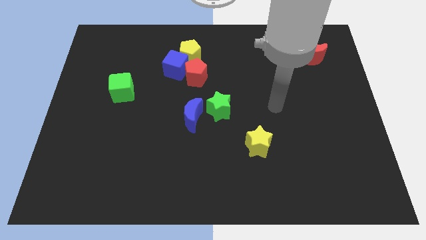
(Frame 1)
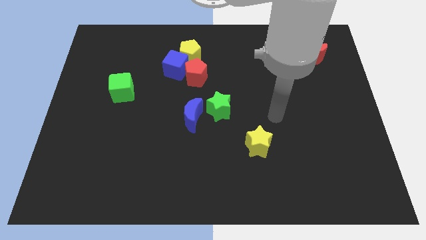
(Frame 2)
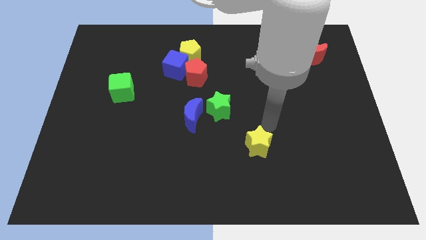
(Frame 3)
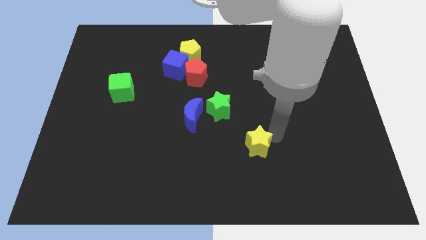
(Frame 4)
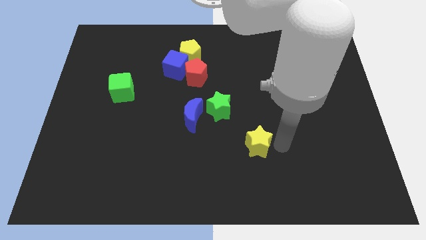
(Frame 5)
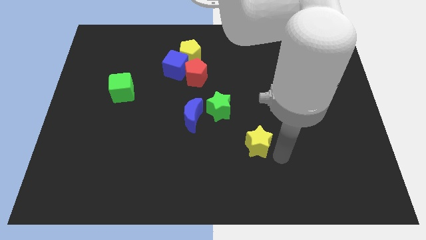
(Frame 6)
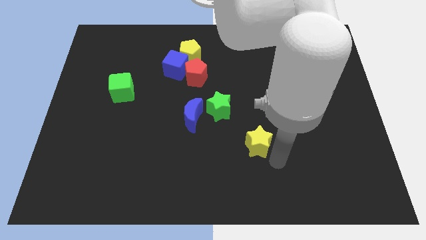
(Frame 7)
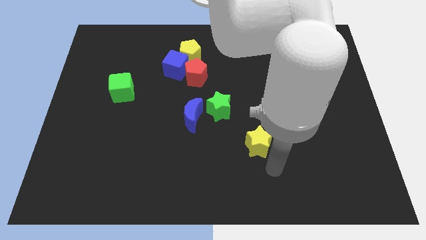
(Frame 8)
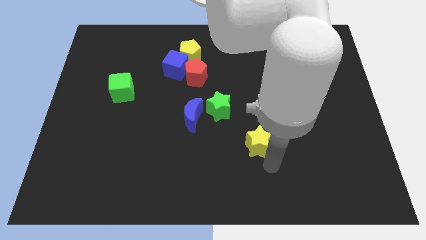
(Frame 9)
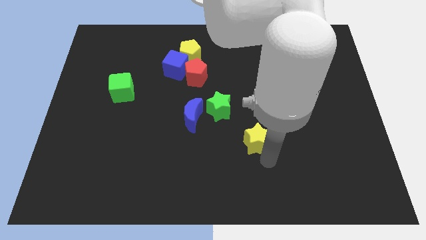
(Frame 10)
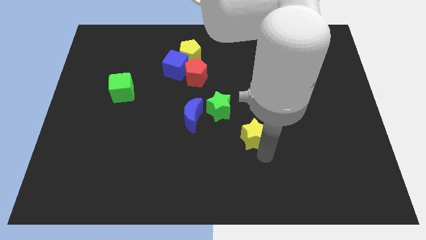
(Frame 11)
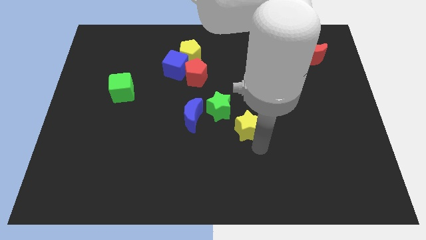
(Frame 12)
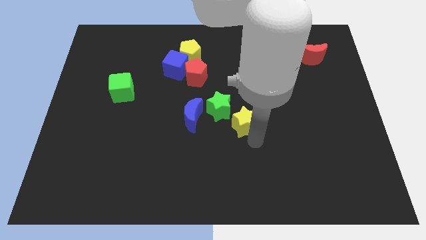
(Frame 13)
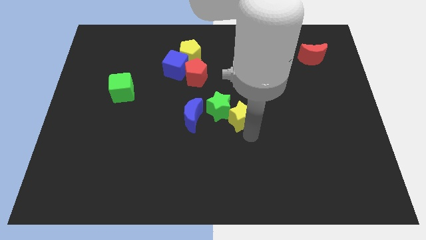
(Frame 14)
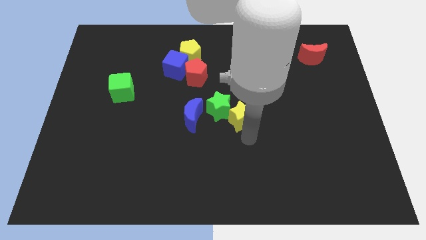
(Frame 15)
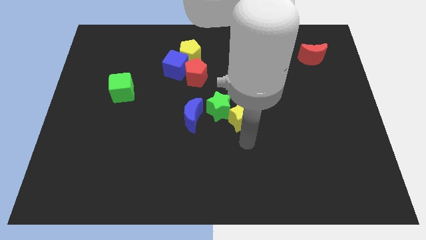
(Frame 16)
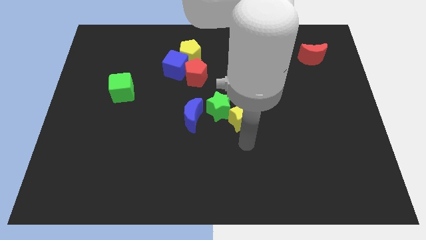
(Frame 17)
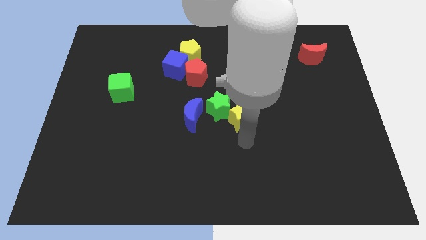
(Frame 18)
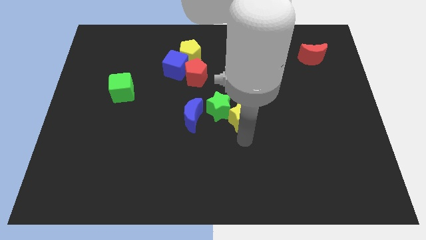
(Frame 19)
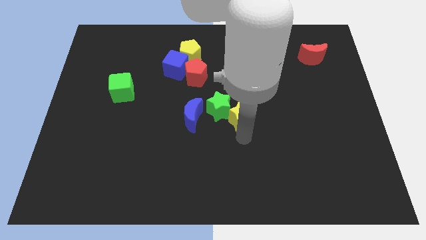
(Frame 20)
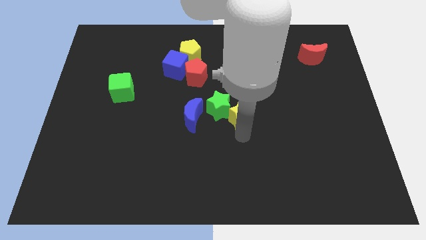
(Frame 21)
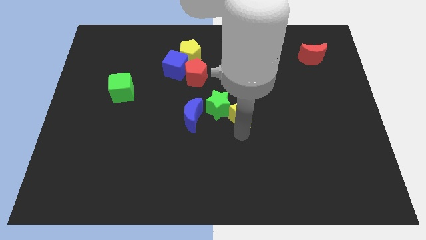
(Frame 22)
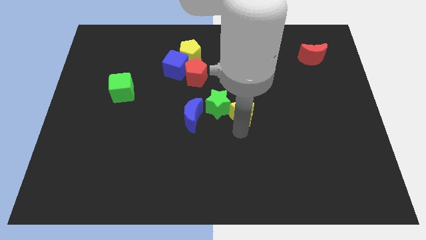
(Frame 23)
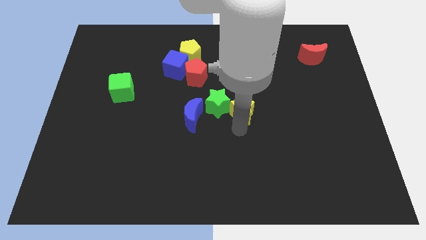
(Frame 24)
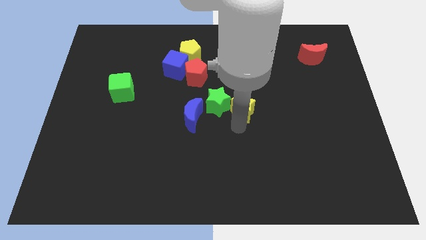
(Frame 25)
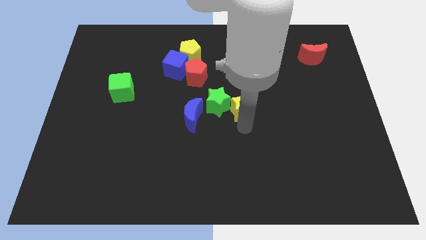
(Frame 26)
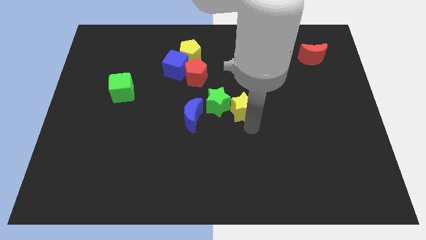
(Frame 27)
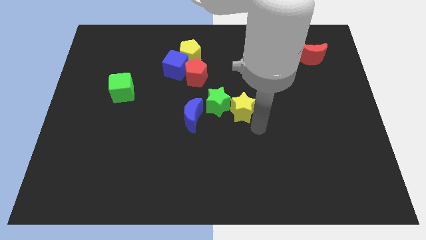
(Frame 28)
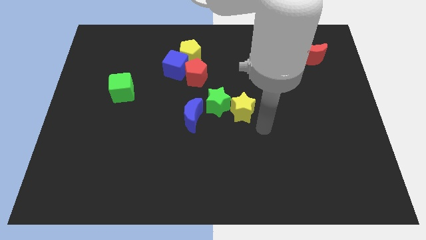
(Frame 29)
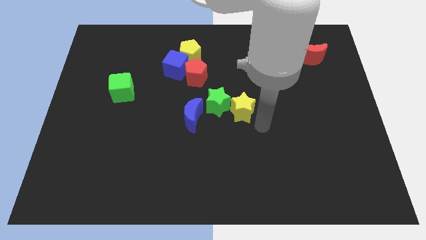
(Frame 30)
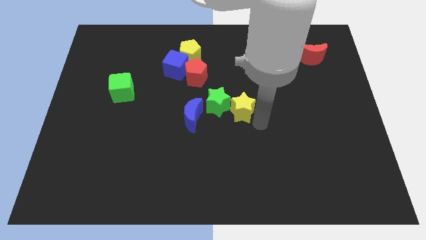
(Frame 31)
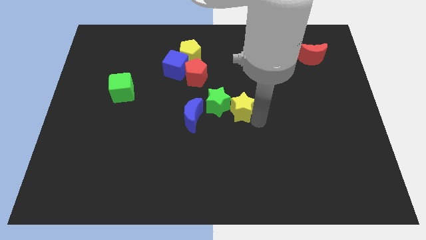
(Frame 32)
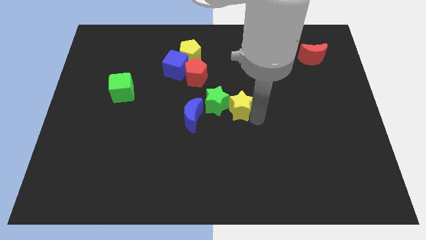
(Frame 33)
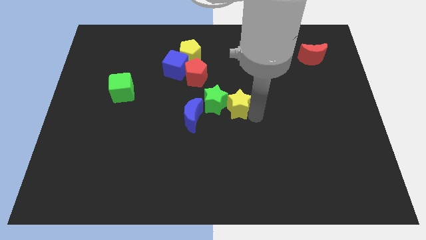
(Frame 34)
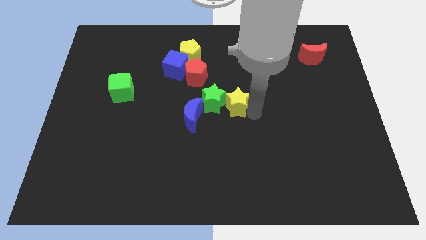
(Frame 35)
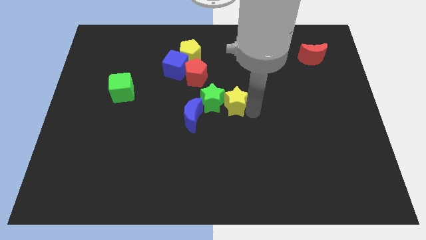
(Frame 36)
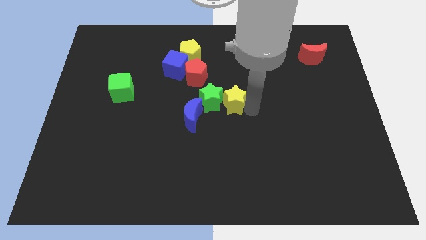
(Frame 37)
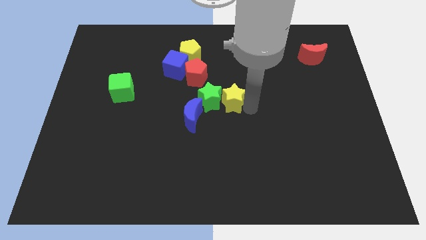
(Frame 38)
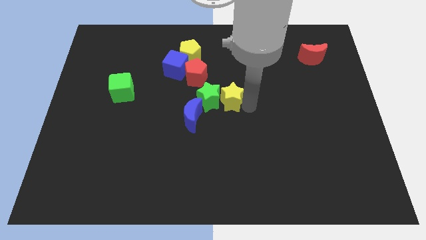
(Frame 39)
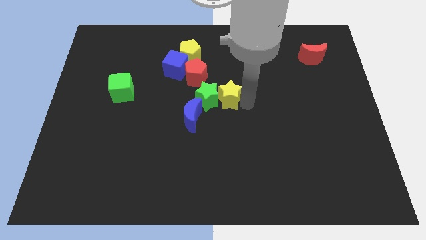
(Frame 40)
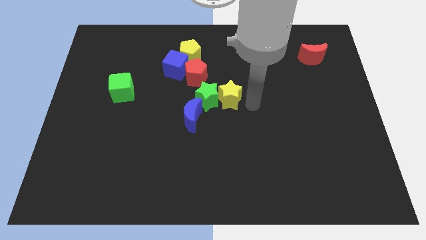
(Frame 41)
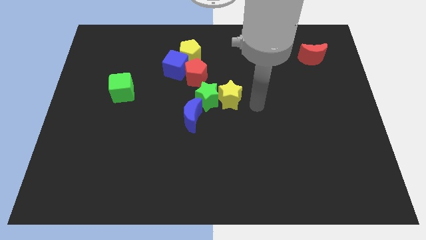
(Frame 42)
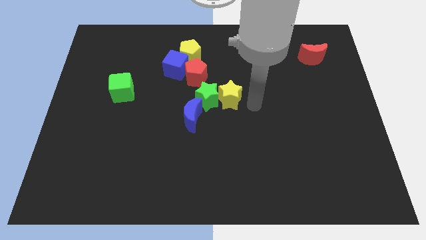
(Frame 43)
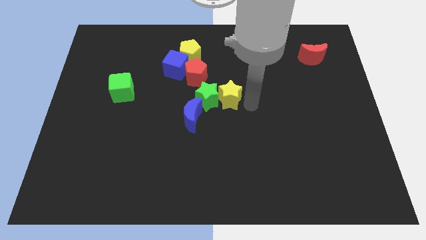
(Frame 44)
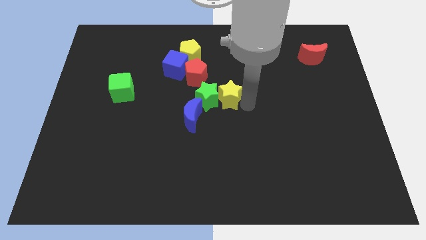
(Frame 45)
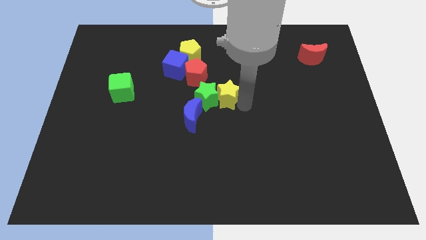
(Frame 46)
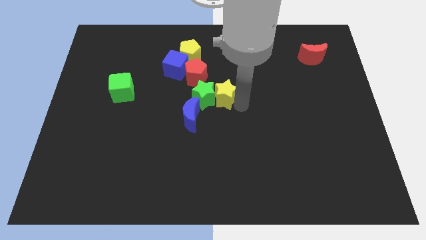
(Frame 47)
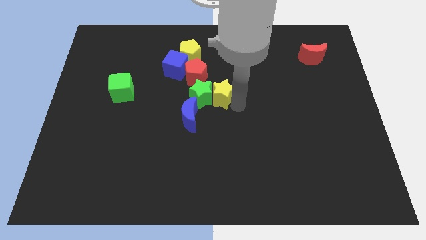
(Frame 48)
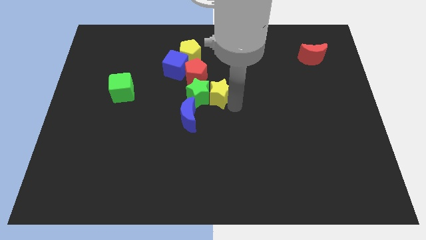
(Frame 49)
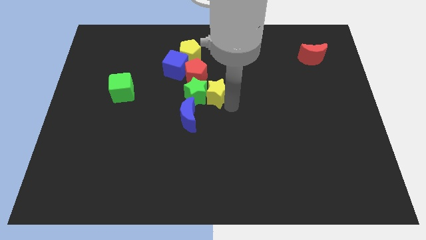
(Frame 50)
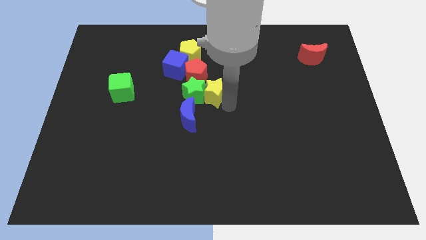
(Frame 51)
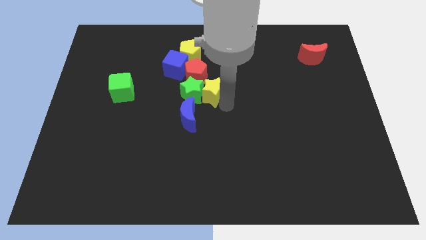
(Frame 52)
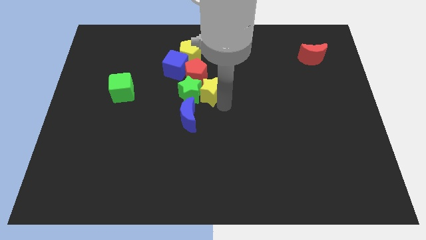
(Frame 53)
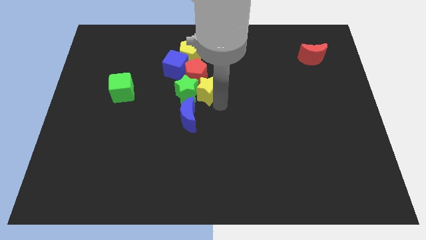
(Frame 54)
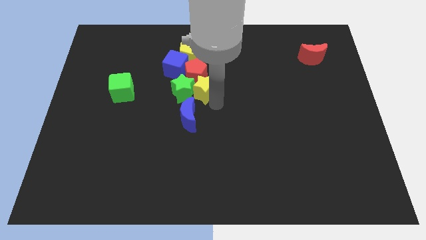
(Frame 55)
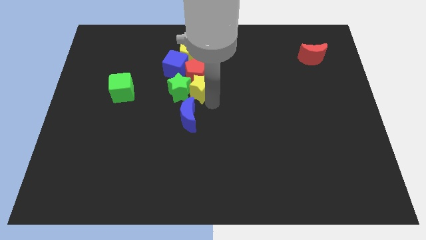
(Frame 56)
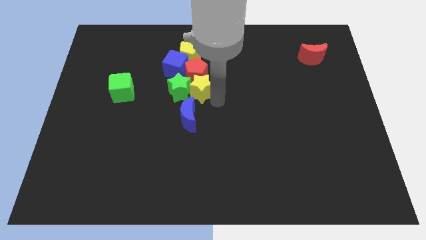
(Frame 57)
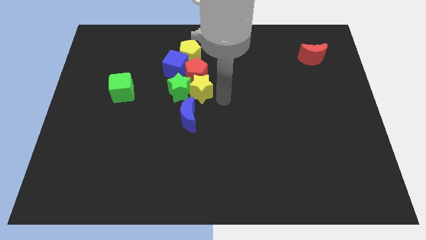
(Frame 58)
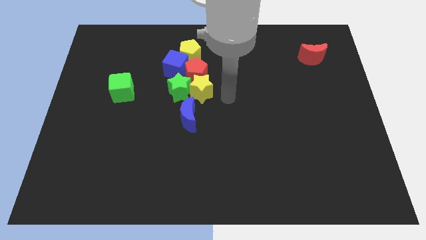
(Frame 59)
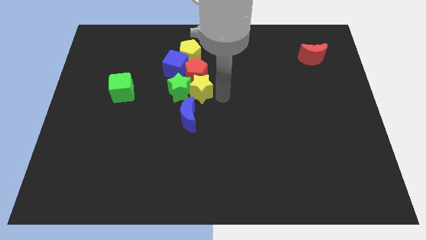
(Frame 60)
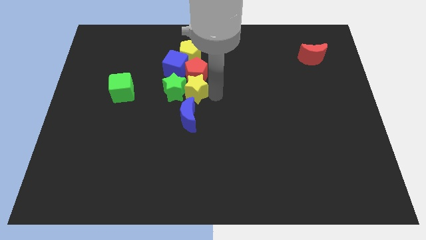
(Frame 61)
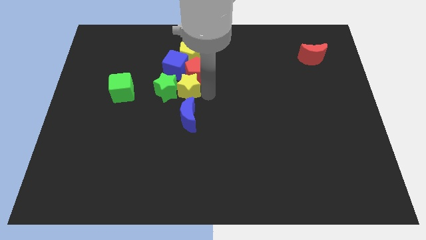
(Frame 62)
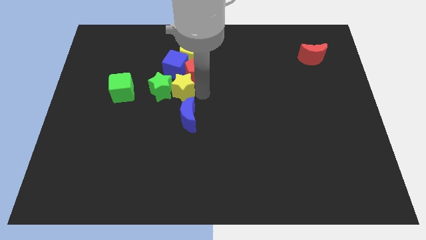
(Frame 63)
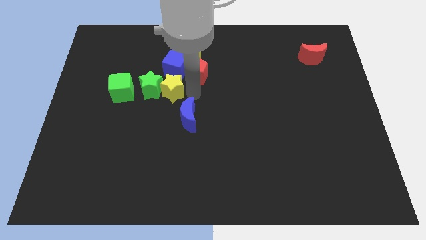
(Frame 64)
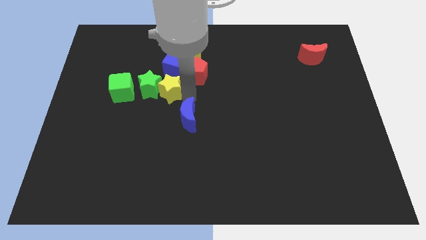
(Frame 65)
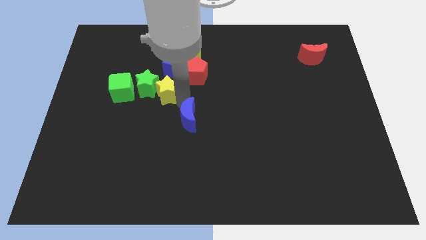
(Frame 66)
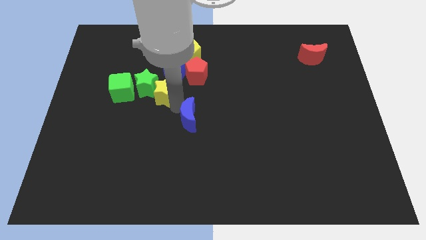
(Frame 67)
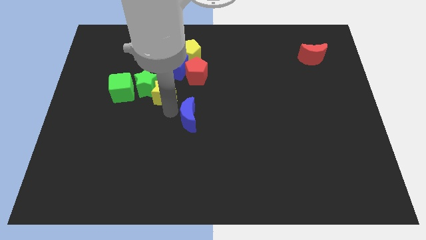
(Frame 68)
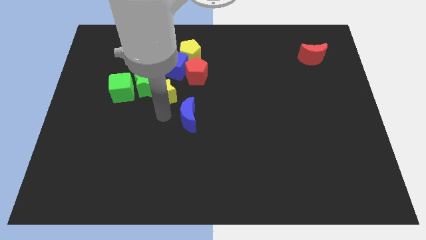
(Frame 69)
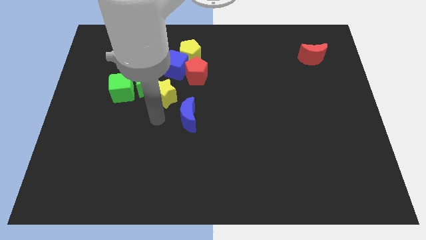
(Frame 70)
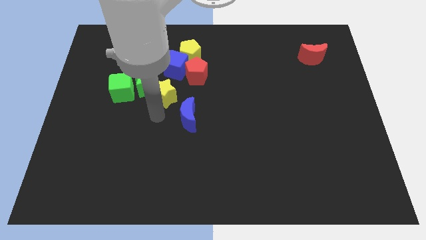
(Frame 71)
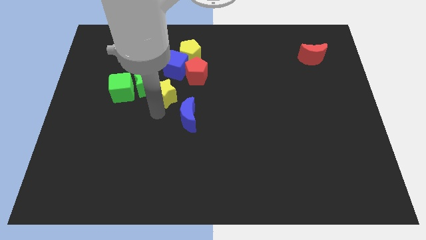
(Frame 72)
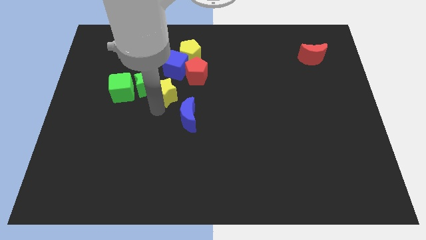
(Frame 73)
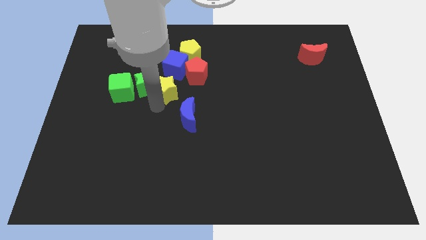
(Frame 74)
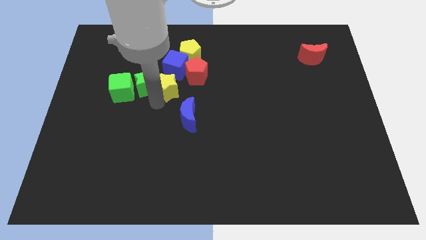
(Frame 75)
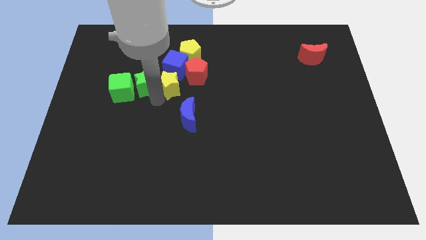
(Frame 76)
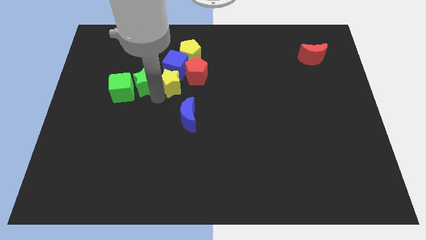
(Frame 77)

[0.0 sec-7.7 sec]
put the yellow star close to the blue cube
